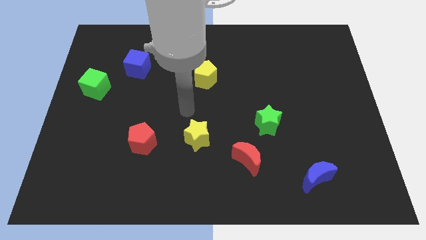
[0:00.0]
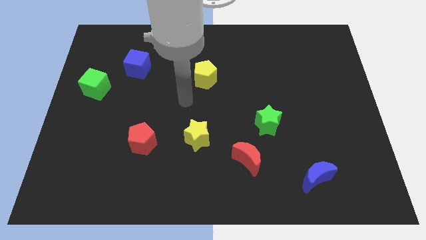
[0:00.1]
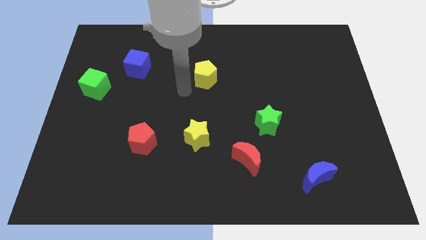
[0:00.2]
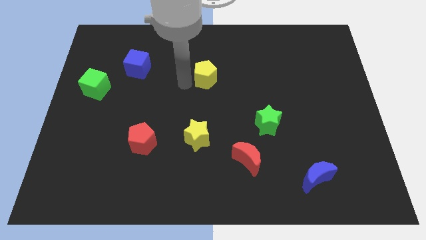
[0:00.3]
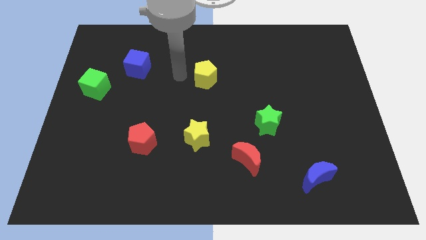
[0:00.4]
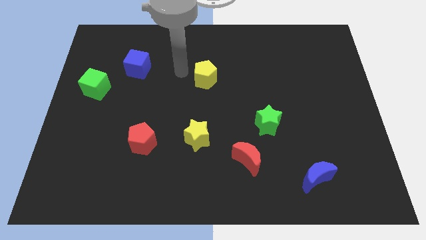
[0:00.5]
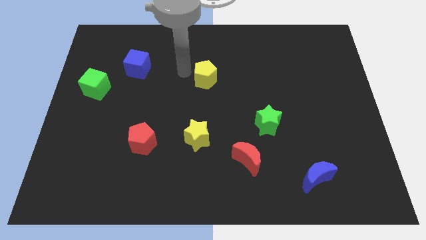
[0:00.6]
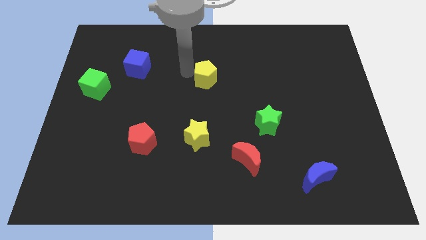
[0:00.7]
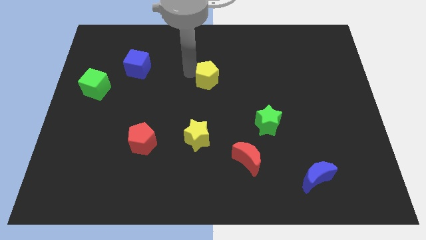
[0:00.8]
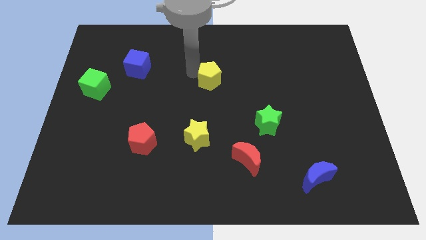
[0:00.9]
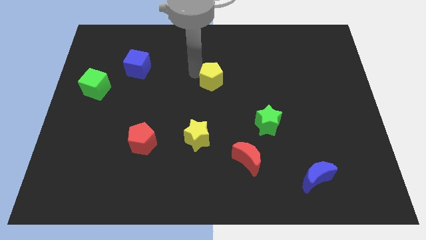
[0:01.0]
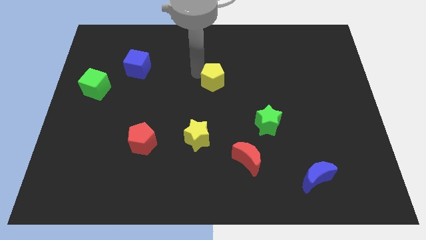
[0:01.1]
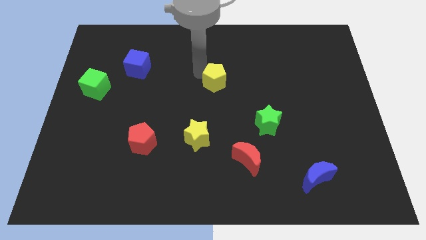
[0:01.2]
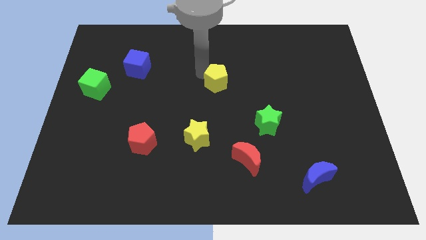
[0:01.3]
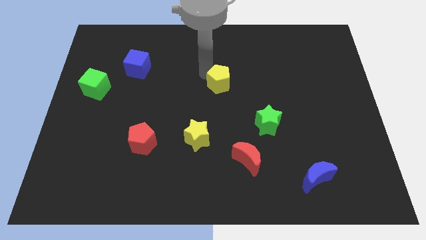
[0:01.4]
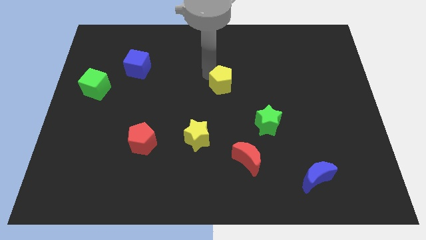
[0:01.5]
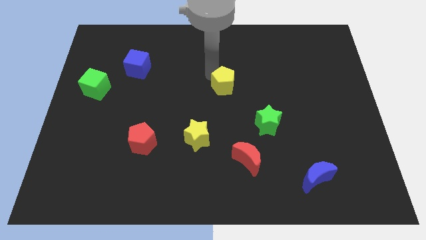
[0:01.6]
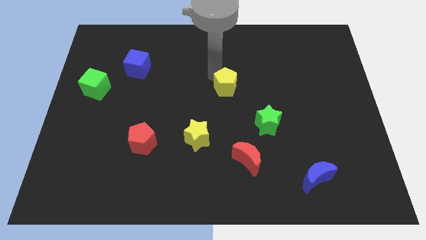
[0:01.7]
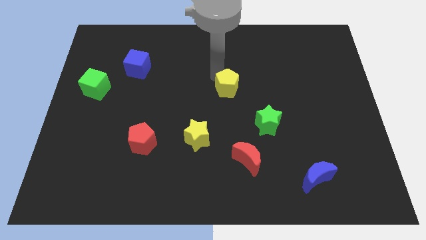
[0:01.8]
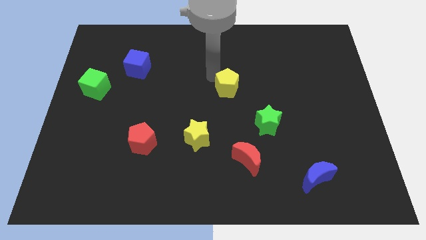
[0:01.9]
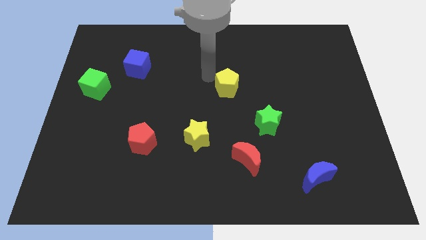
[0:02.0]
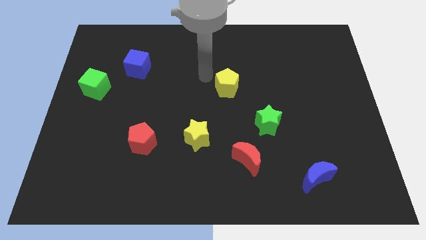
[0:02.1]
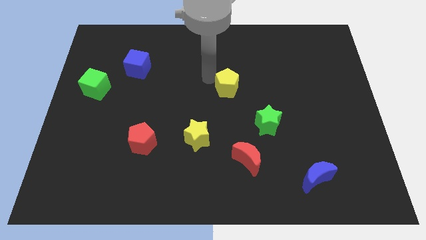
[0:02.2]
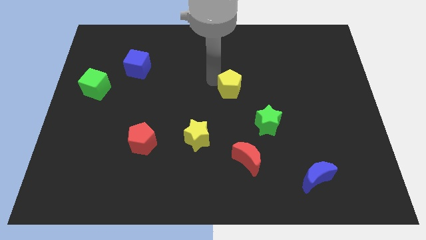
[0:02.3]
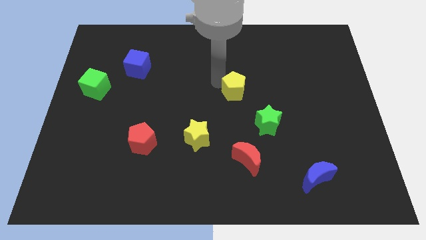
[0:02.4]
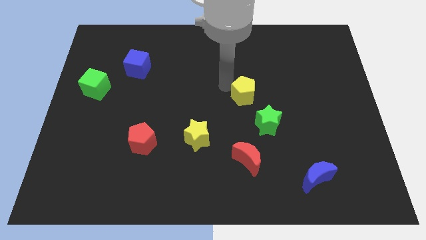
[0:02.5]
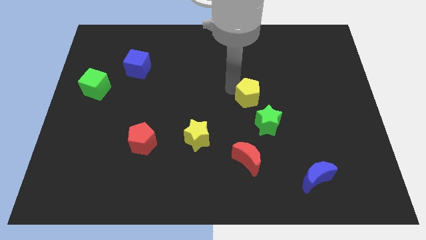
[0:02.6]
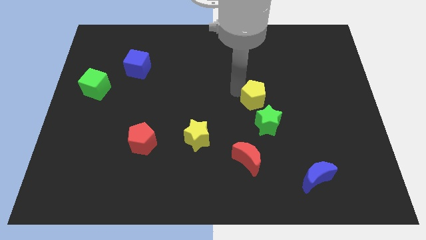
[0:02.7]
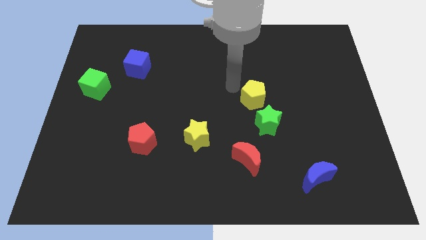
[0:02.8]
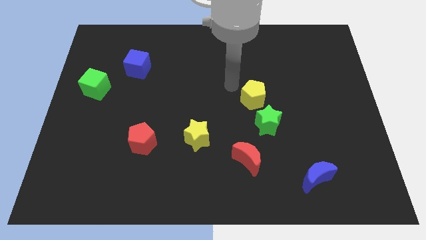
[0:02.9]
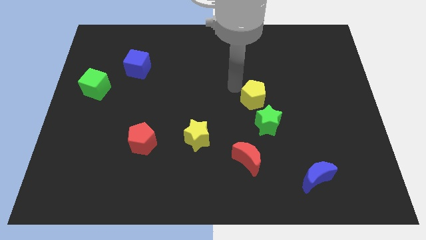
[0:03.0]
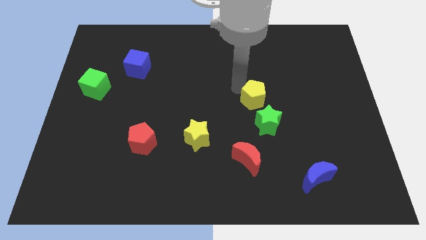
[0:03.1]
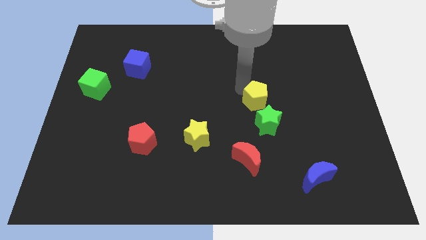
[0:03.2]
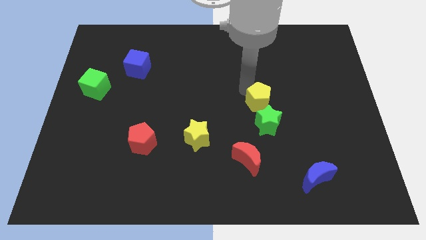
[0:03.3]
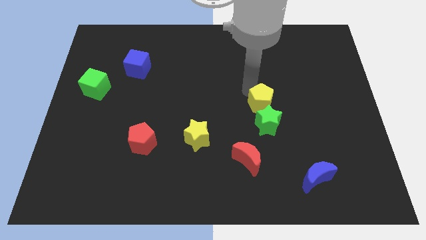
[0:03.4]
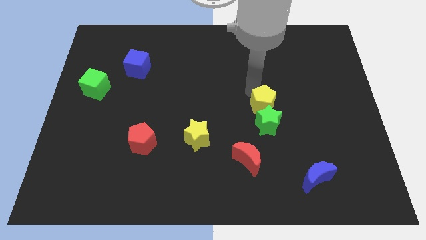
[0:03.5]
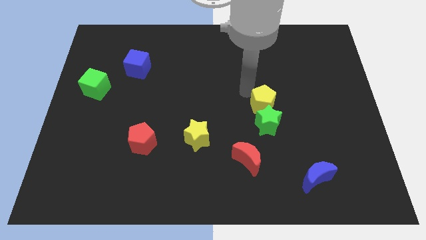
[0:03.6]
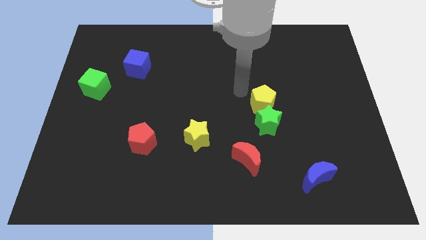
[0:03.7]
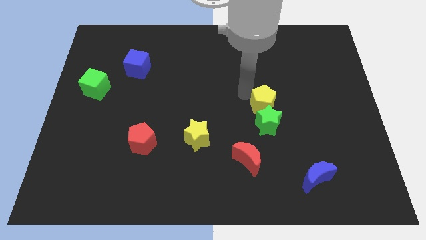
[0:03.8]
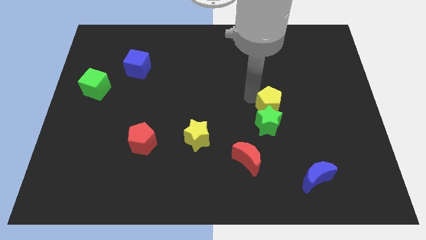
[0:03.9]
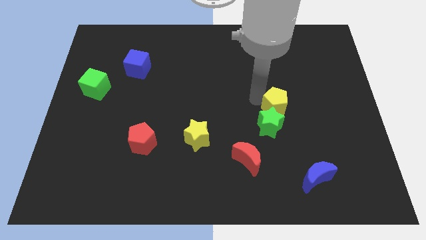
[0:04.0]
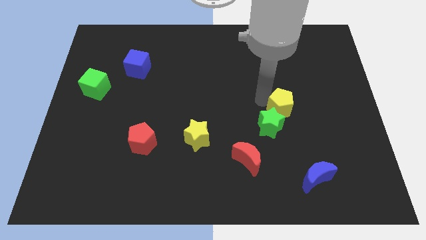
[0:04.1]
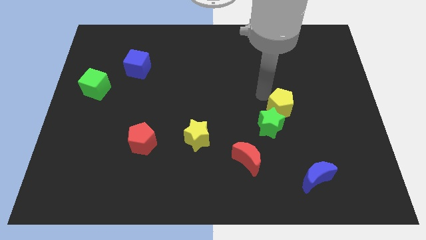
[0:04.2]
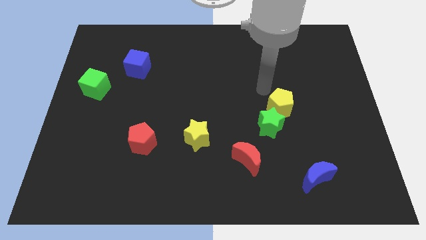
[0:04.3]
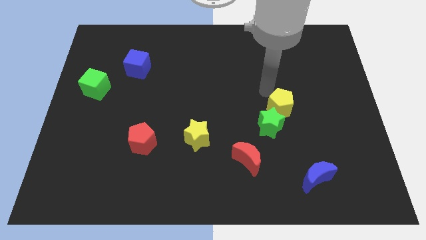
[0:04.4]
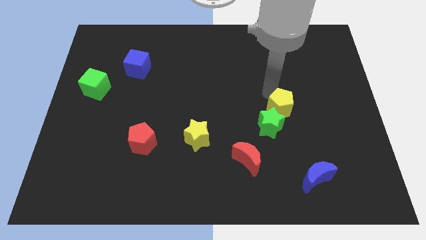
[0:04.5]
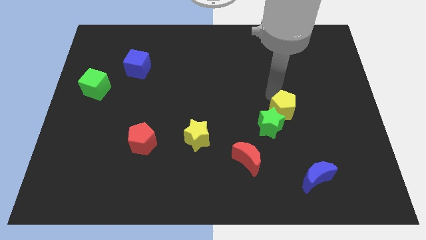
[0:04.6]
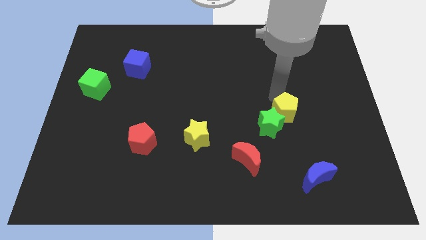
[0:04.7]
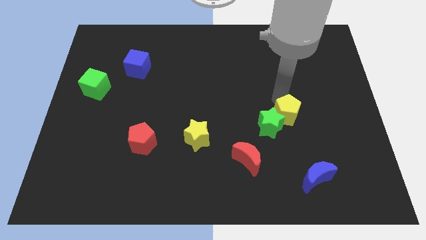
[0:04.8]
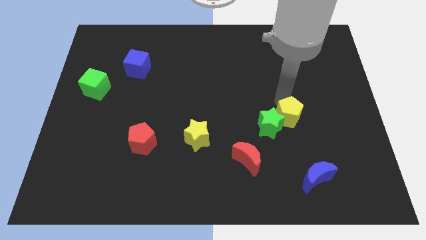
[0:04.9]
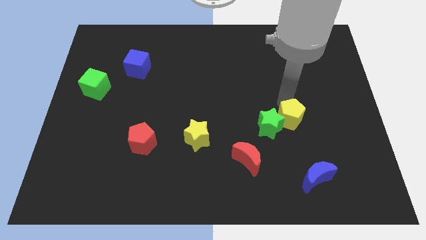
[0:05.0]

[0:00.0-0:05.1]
put the yellow pentagon to the top side of the blue moon

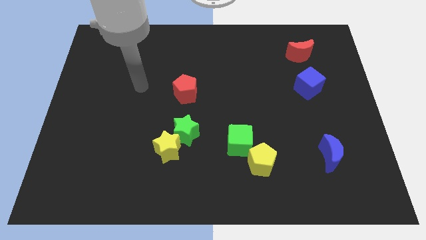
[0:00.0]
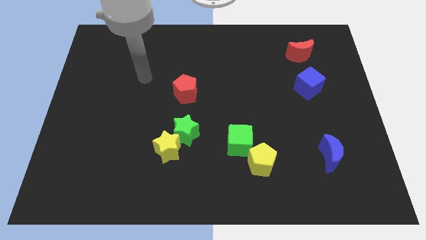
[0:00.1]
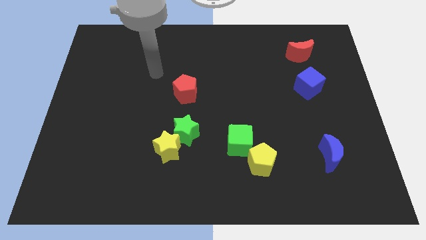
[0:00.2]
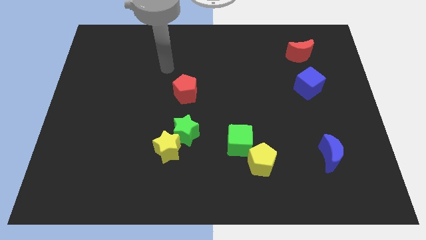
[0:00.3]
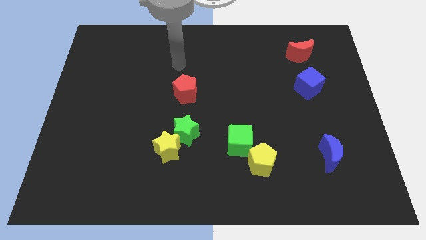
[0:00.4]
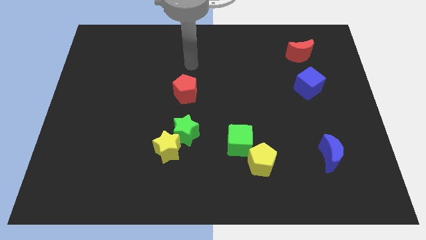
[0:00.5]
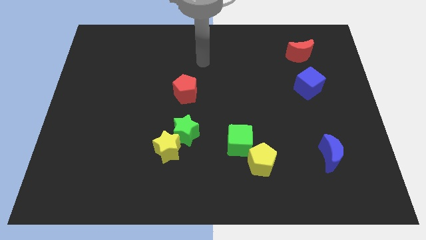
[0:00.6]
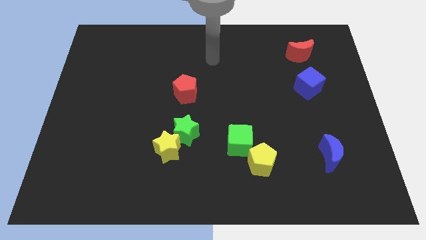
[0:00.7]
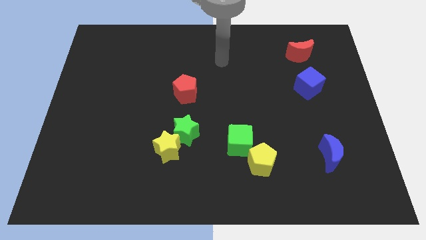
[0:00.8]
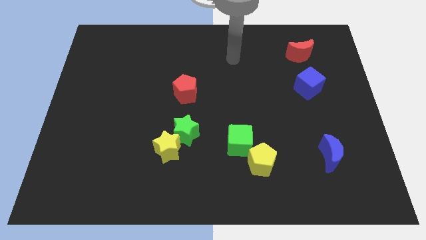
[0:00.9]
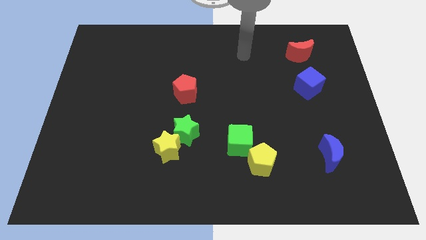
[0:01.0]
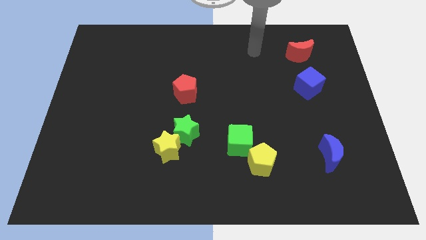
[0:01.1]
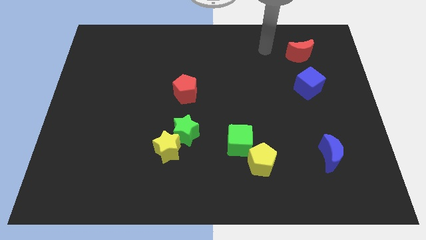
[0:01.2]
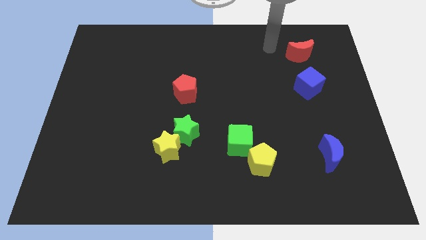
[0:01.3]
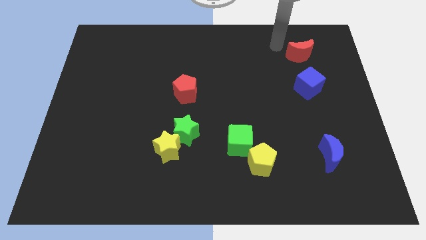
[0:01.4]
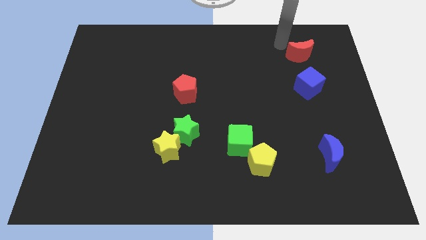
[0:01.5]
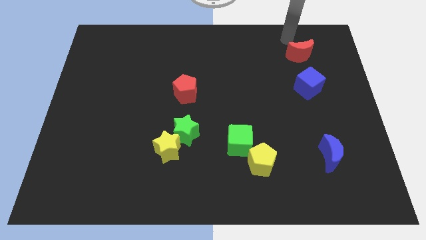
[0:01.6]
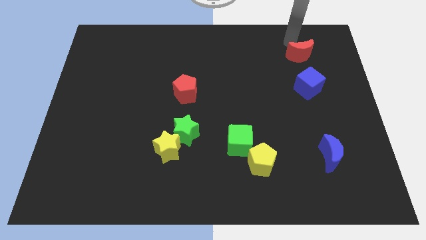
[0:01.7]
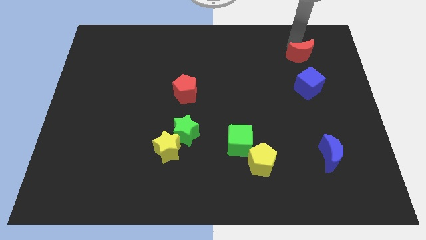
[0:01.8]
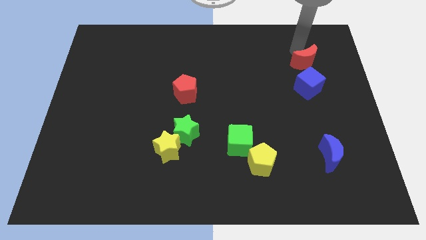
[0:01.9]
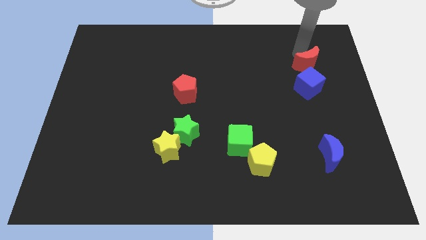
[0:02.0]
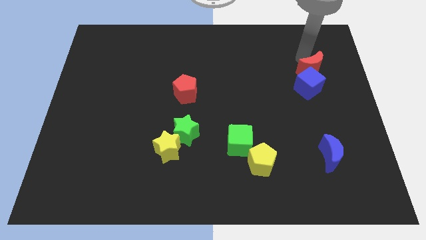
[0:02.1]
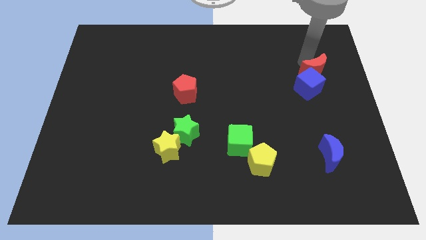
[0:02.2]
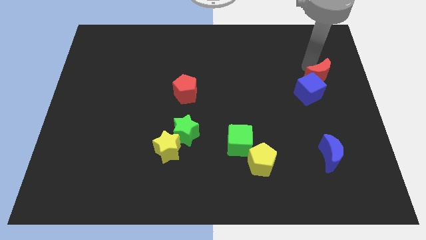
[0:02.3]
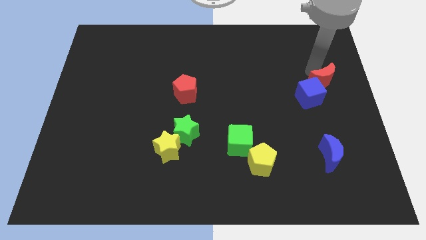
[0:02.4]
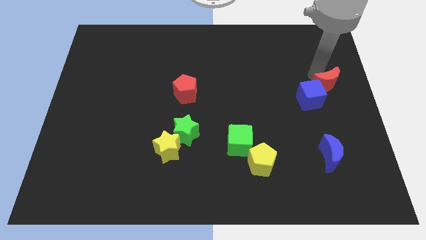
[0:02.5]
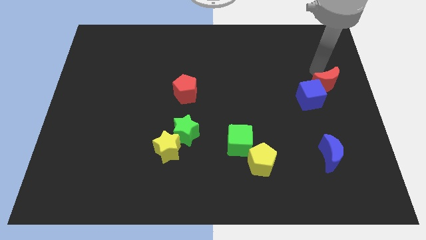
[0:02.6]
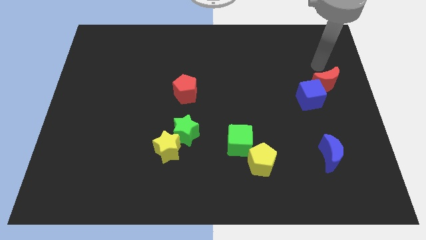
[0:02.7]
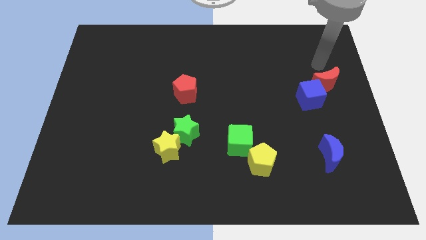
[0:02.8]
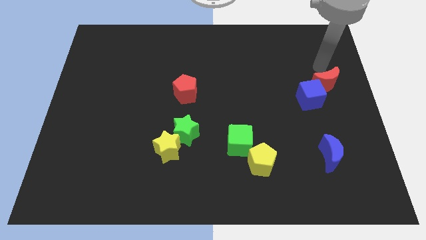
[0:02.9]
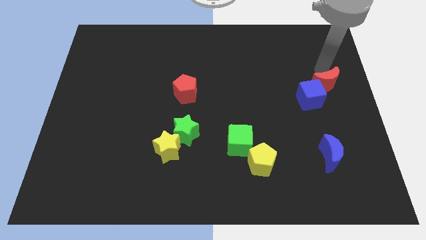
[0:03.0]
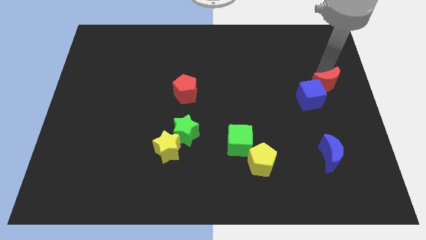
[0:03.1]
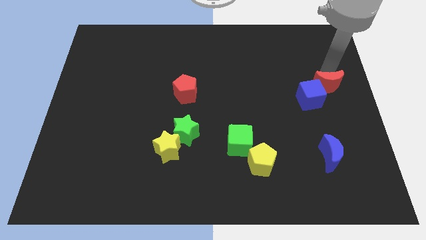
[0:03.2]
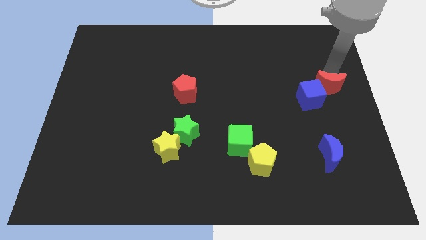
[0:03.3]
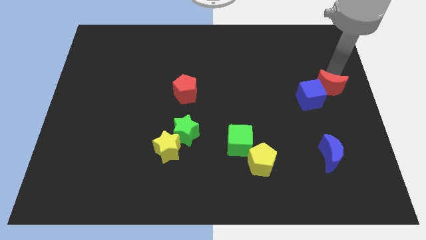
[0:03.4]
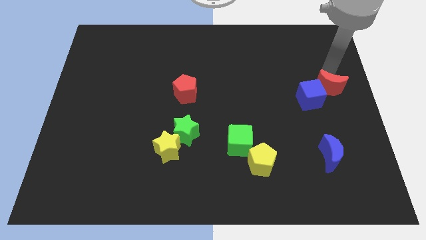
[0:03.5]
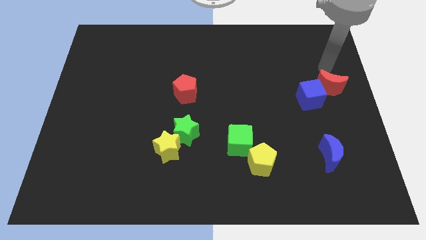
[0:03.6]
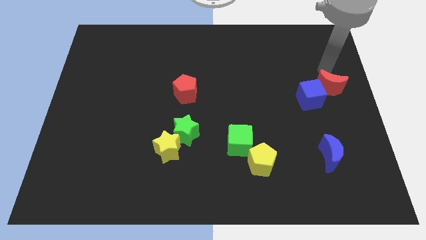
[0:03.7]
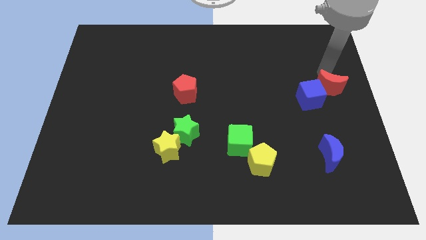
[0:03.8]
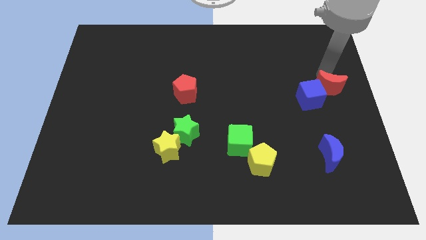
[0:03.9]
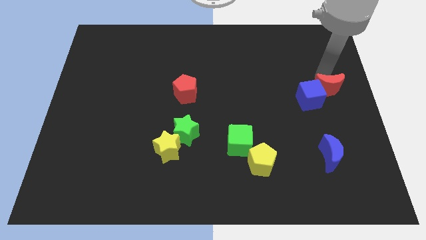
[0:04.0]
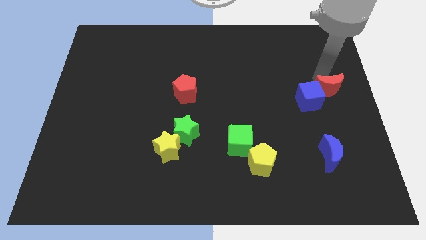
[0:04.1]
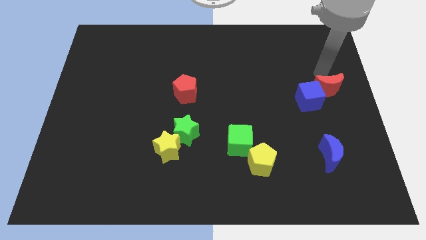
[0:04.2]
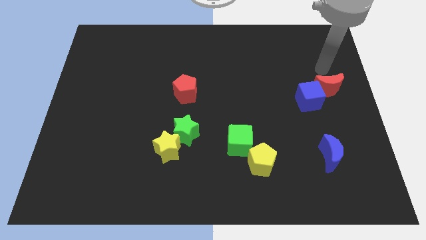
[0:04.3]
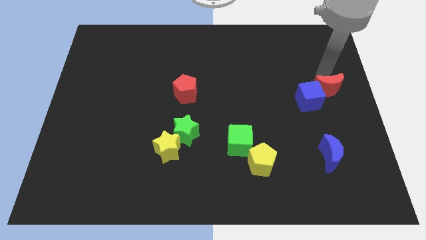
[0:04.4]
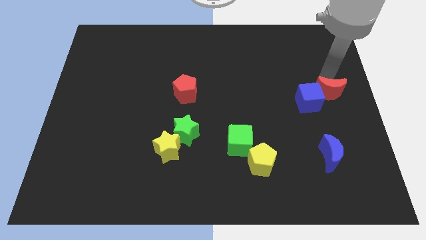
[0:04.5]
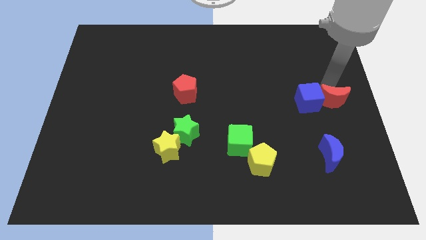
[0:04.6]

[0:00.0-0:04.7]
push the red moon diagonally down and to the right of the blue cube
